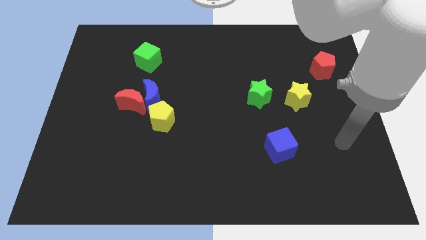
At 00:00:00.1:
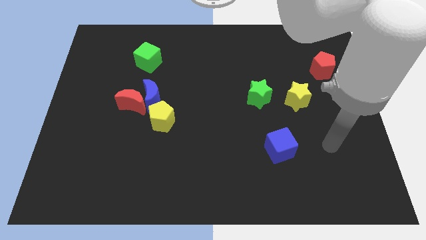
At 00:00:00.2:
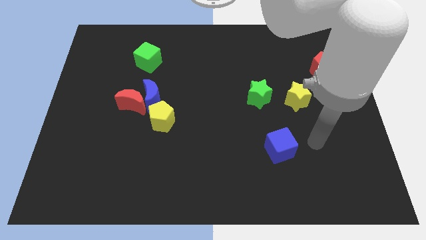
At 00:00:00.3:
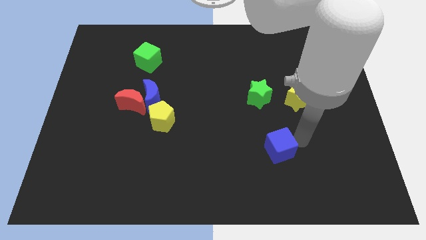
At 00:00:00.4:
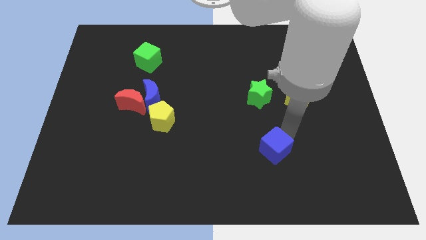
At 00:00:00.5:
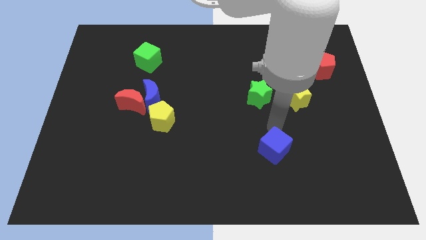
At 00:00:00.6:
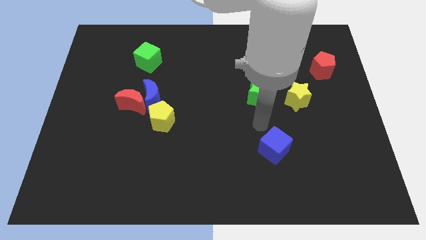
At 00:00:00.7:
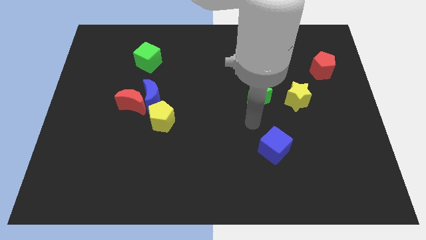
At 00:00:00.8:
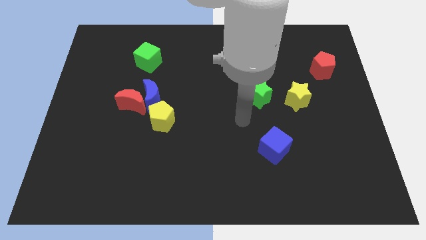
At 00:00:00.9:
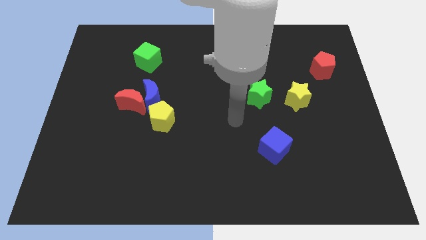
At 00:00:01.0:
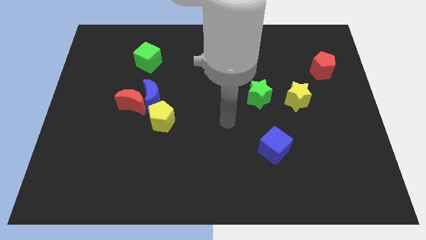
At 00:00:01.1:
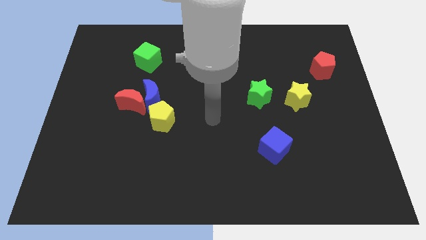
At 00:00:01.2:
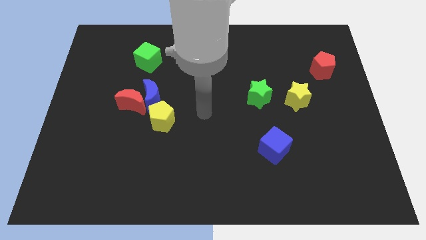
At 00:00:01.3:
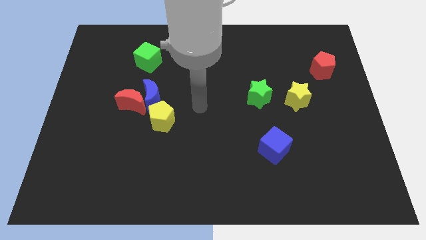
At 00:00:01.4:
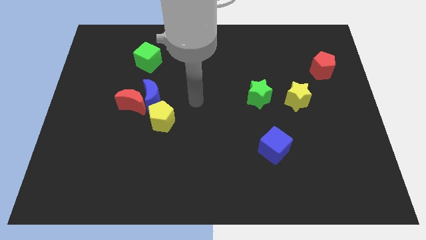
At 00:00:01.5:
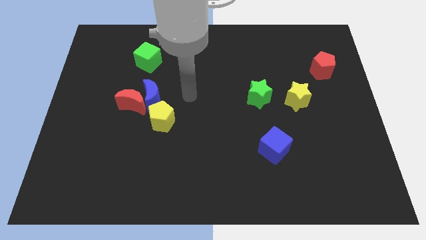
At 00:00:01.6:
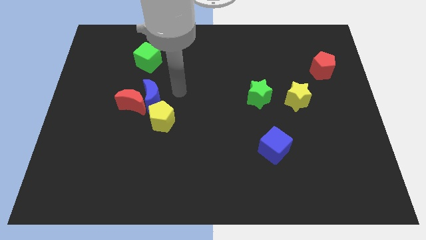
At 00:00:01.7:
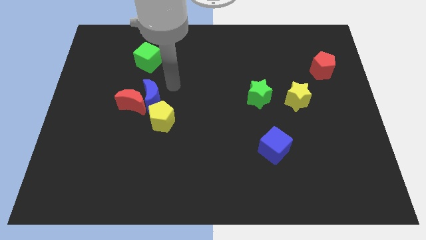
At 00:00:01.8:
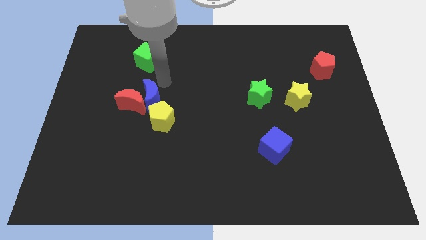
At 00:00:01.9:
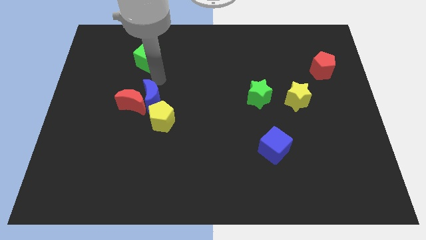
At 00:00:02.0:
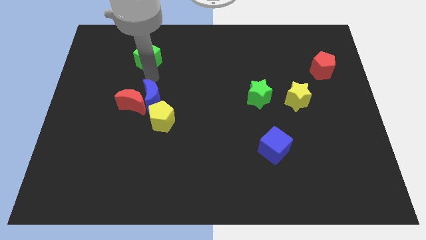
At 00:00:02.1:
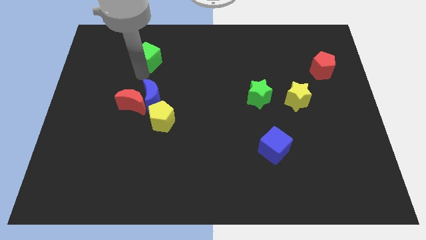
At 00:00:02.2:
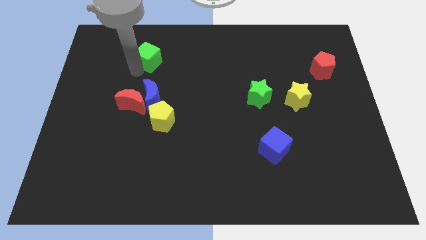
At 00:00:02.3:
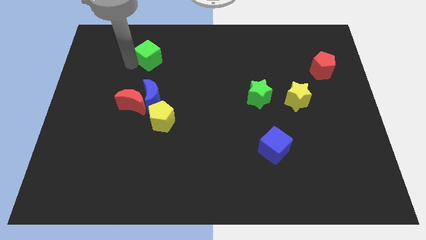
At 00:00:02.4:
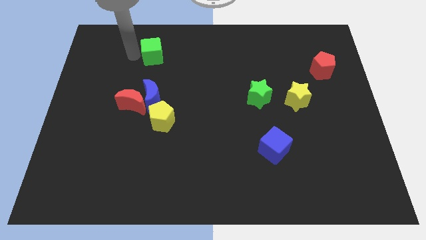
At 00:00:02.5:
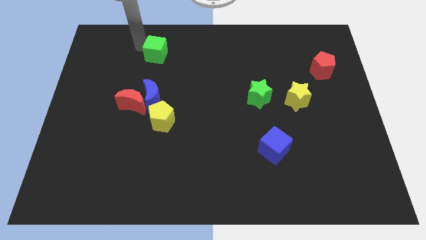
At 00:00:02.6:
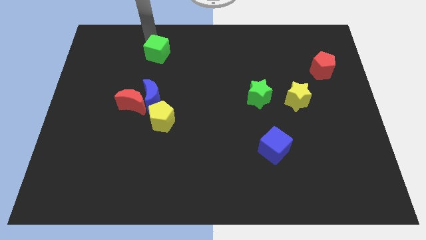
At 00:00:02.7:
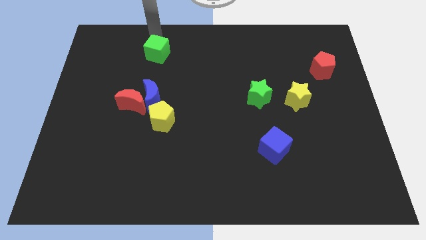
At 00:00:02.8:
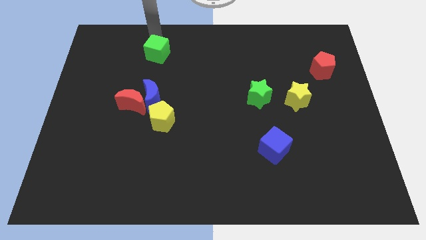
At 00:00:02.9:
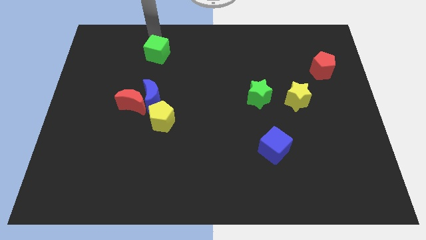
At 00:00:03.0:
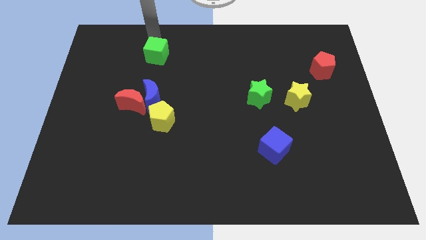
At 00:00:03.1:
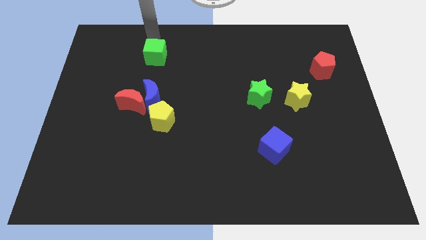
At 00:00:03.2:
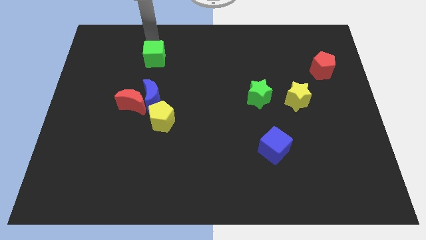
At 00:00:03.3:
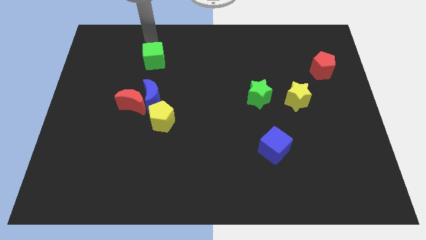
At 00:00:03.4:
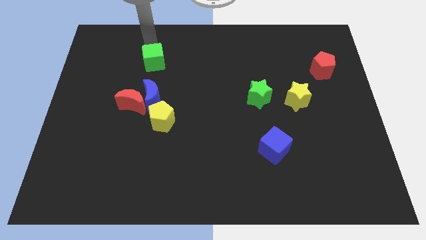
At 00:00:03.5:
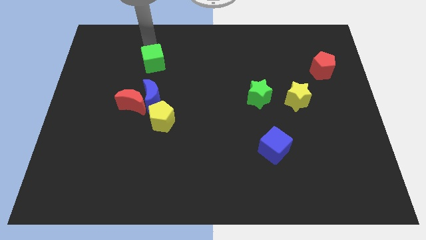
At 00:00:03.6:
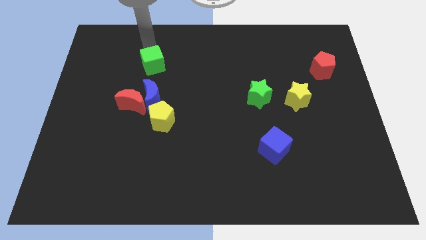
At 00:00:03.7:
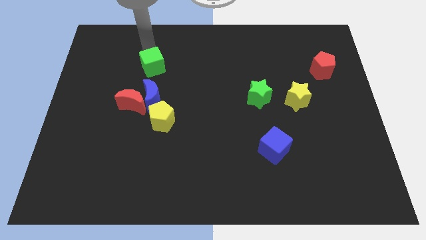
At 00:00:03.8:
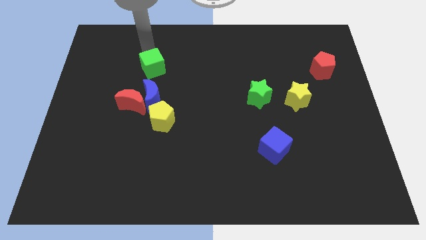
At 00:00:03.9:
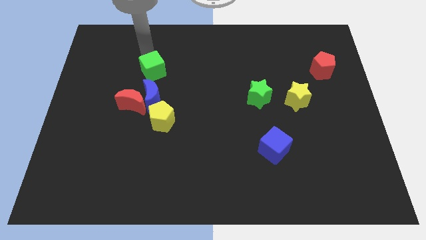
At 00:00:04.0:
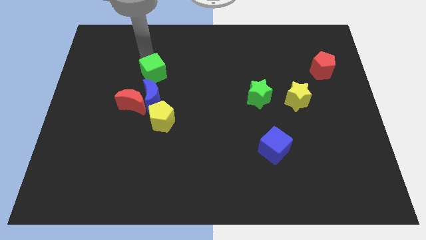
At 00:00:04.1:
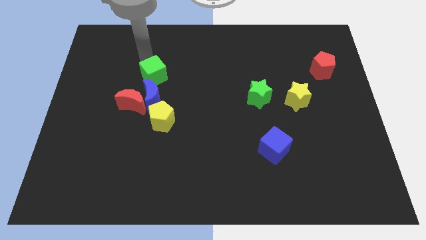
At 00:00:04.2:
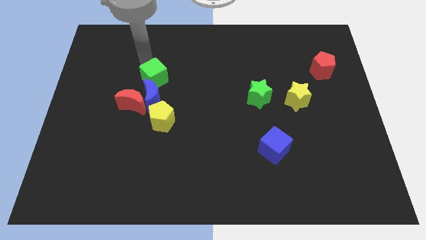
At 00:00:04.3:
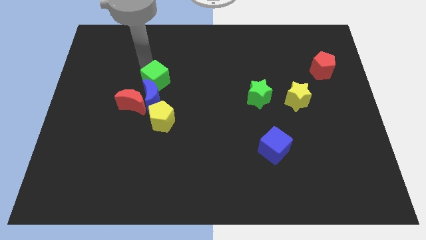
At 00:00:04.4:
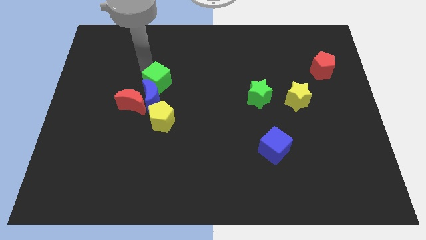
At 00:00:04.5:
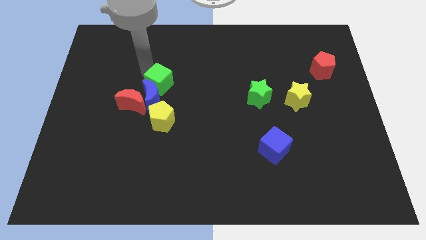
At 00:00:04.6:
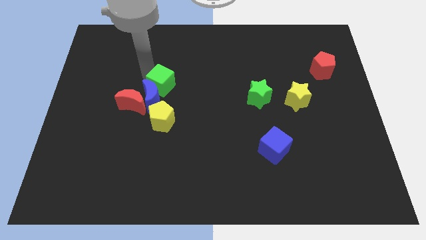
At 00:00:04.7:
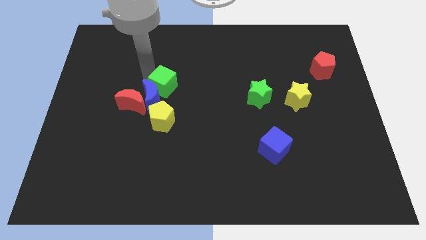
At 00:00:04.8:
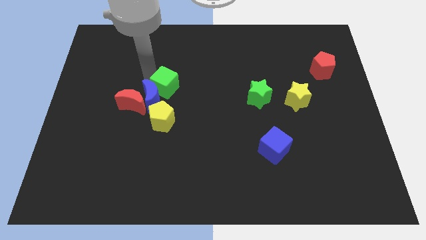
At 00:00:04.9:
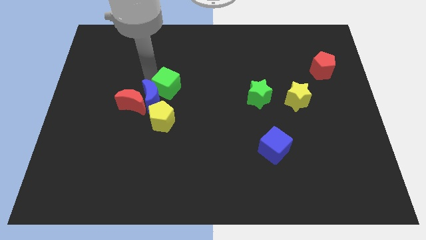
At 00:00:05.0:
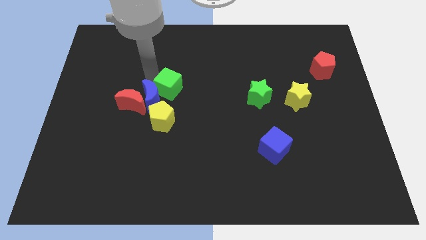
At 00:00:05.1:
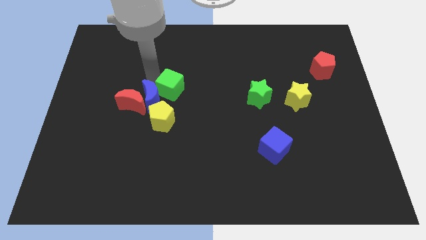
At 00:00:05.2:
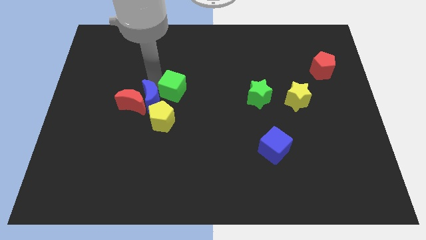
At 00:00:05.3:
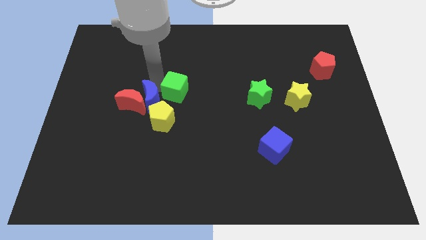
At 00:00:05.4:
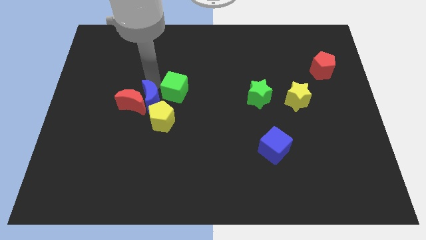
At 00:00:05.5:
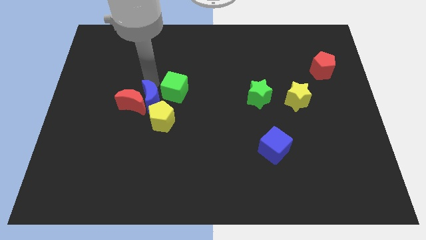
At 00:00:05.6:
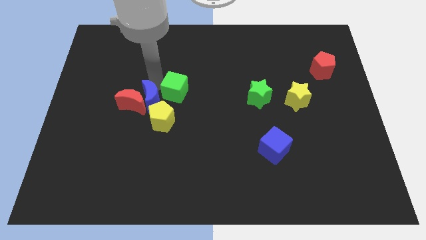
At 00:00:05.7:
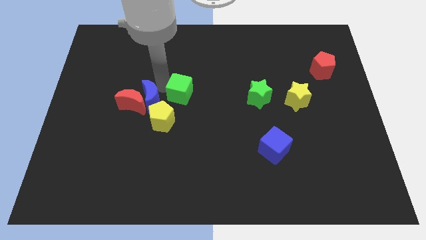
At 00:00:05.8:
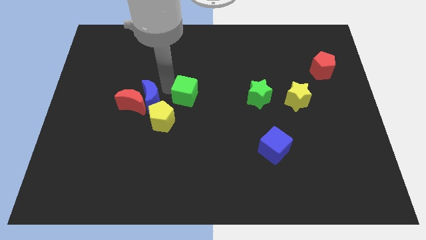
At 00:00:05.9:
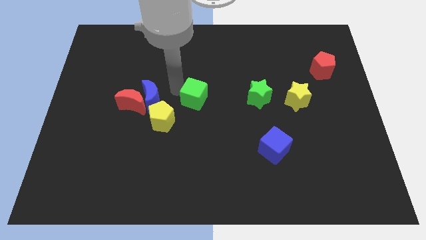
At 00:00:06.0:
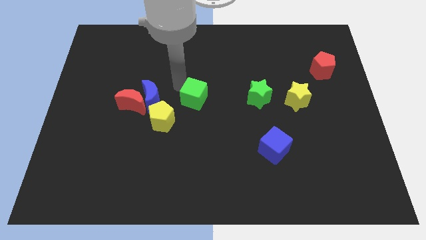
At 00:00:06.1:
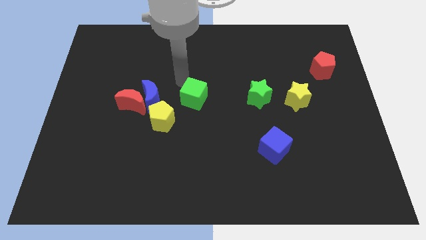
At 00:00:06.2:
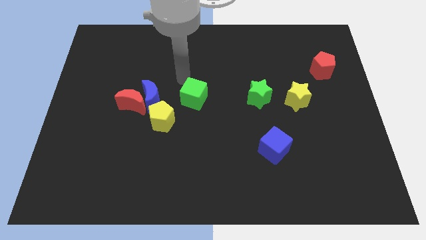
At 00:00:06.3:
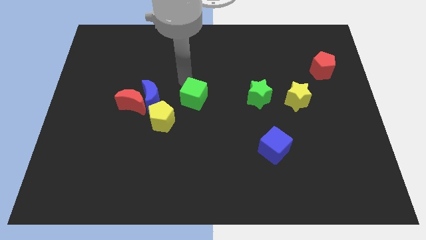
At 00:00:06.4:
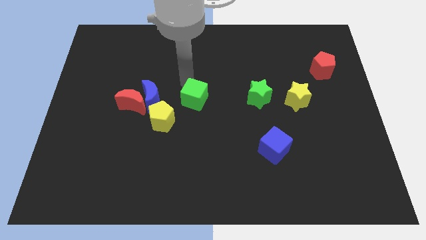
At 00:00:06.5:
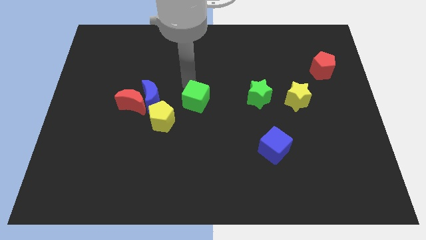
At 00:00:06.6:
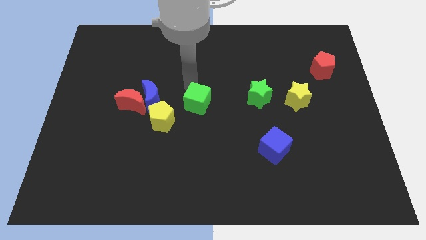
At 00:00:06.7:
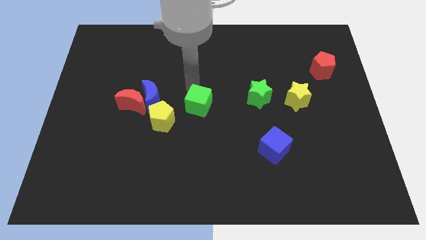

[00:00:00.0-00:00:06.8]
put the green cube to the right side of the yellow pentagon
